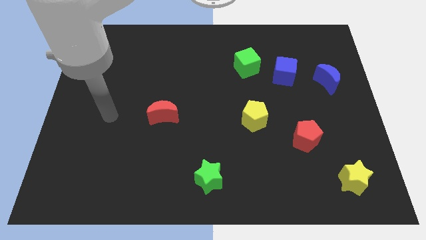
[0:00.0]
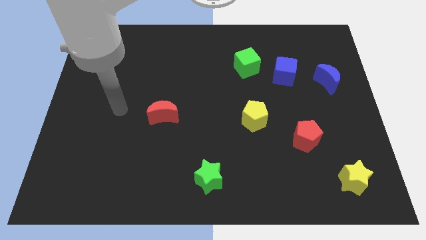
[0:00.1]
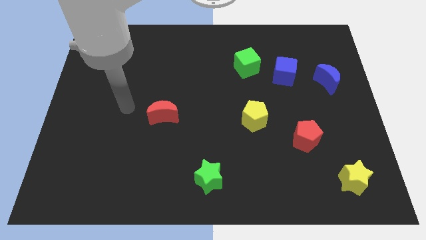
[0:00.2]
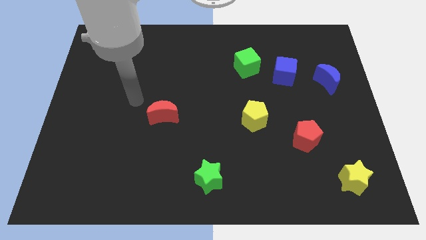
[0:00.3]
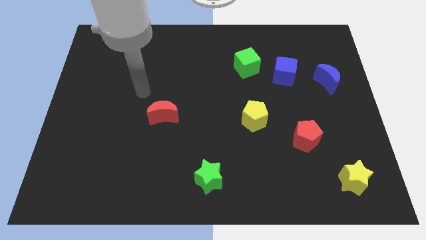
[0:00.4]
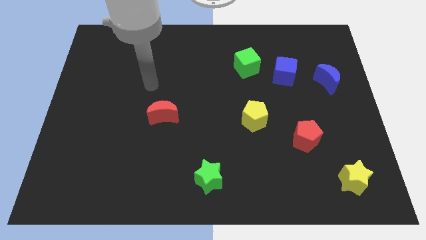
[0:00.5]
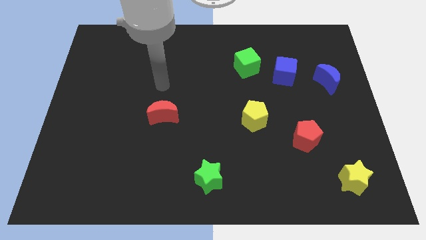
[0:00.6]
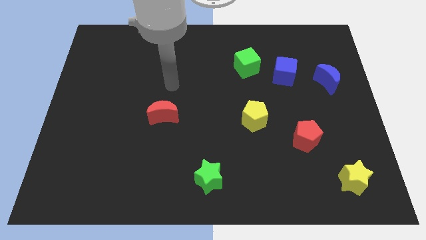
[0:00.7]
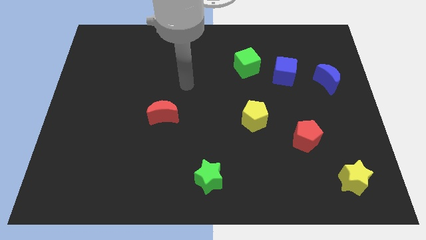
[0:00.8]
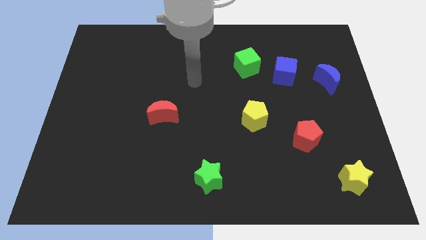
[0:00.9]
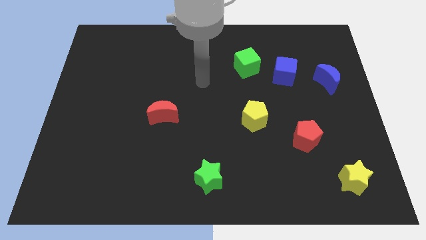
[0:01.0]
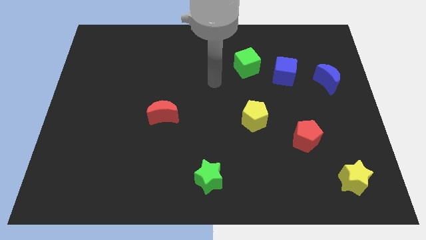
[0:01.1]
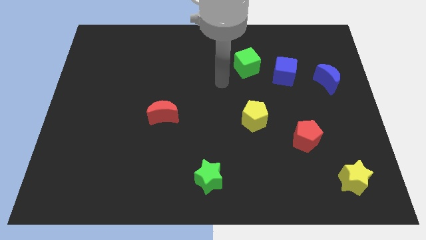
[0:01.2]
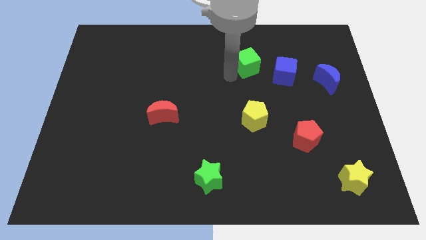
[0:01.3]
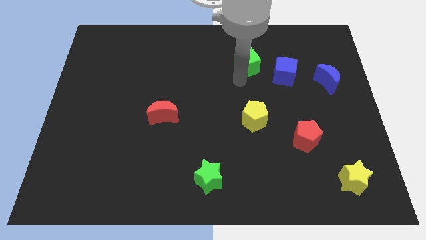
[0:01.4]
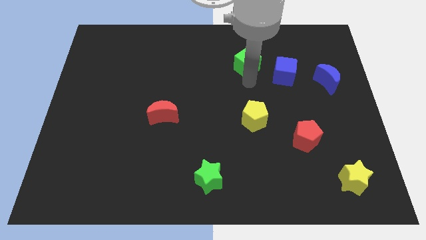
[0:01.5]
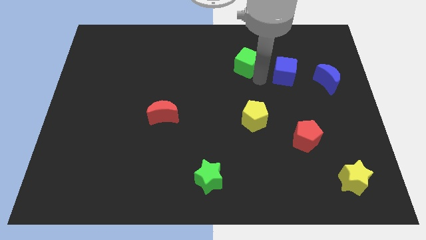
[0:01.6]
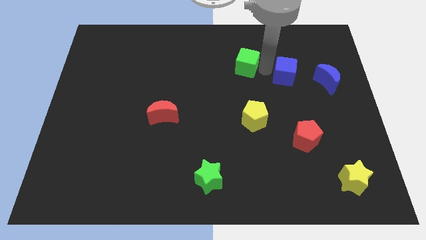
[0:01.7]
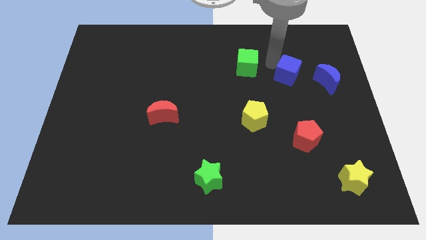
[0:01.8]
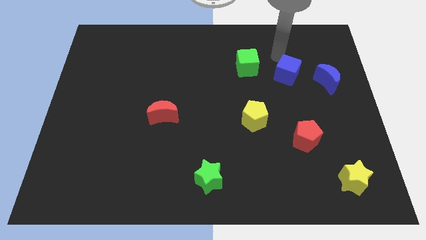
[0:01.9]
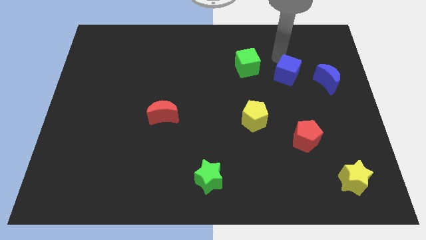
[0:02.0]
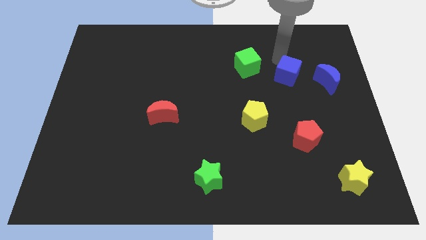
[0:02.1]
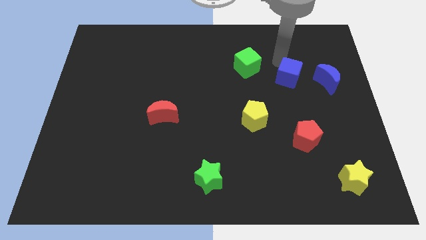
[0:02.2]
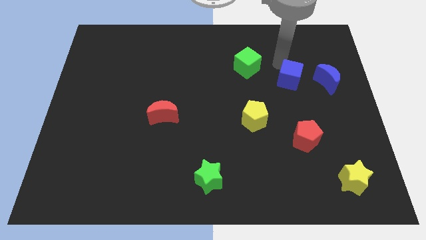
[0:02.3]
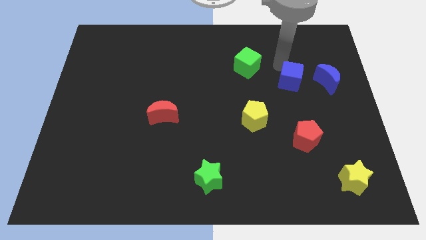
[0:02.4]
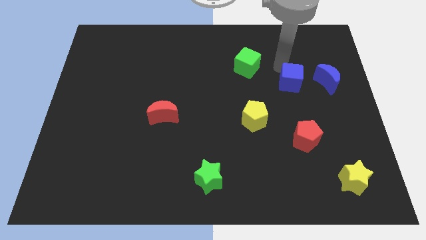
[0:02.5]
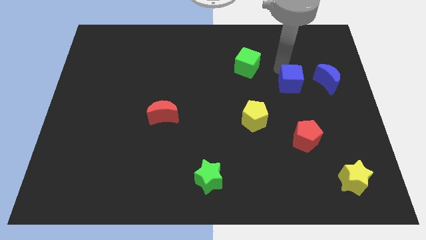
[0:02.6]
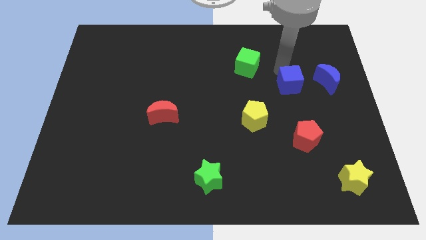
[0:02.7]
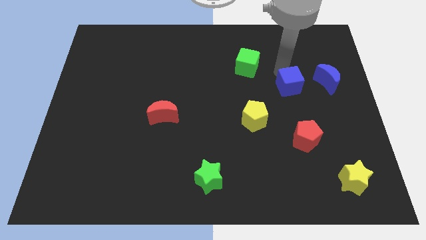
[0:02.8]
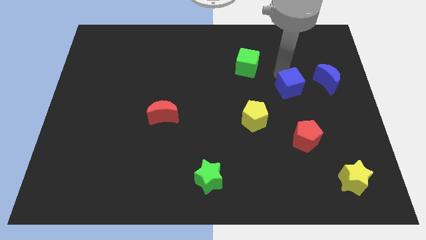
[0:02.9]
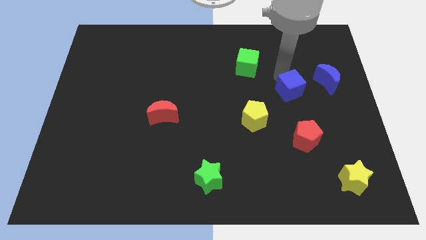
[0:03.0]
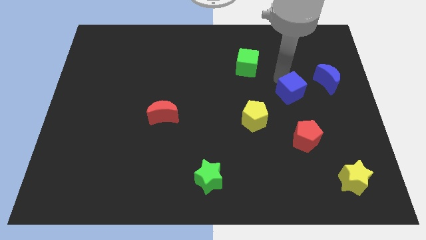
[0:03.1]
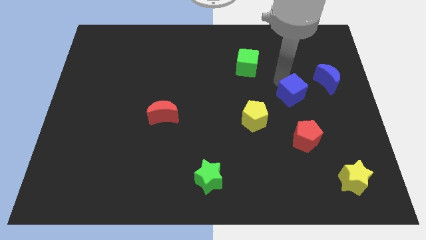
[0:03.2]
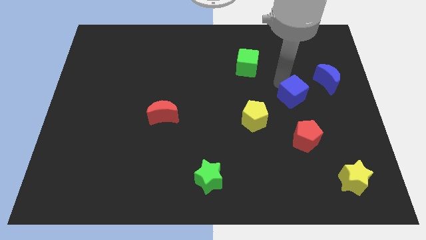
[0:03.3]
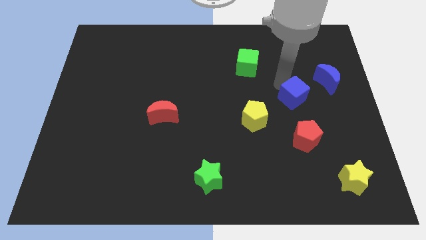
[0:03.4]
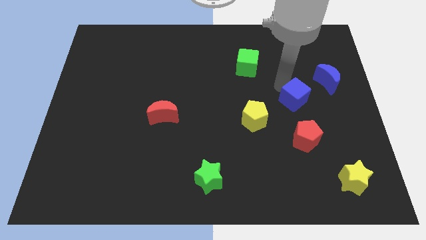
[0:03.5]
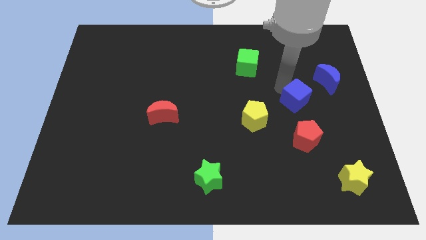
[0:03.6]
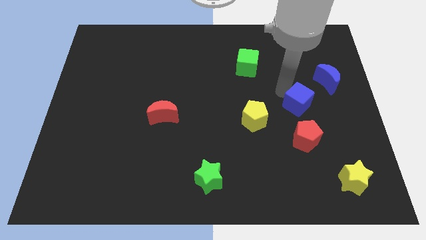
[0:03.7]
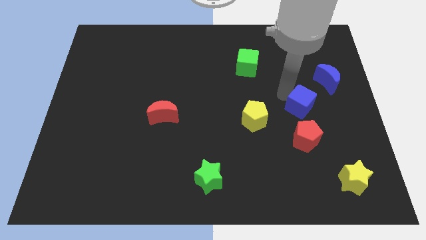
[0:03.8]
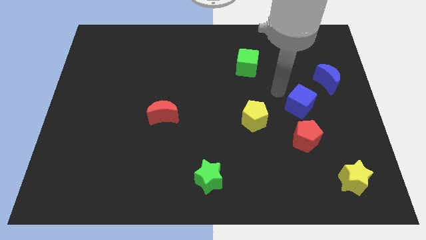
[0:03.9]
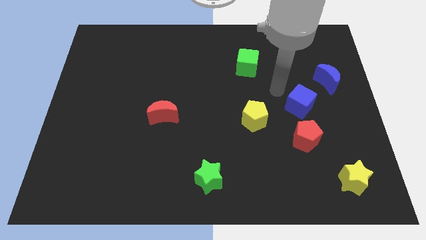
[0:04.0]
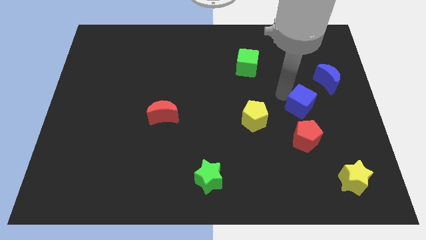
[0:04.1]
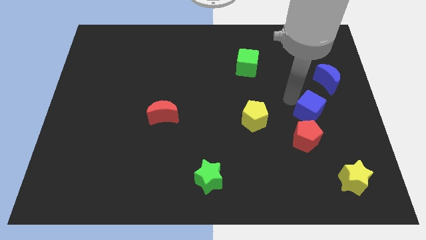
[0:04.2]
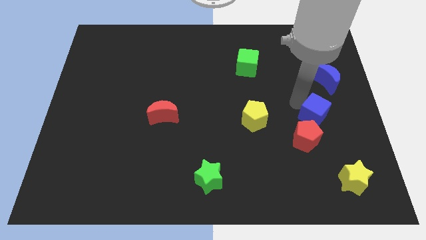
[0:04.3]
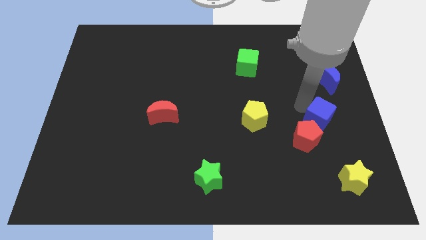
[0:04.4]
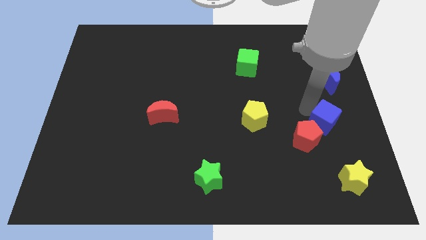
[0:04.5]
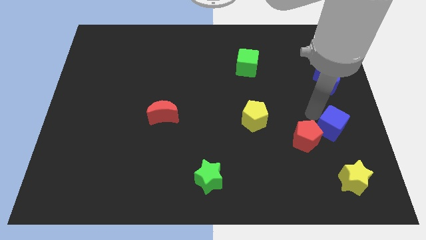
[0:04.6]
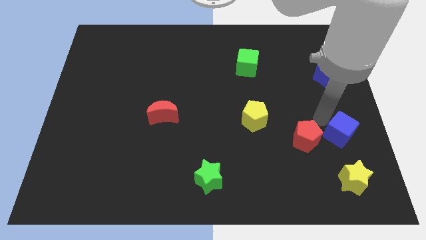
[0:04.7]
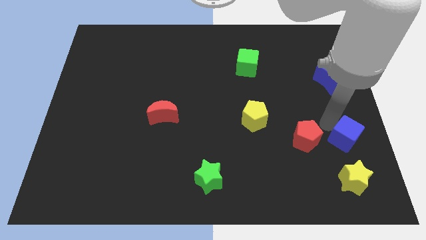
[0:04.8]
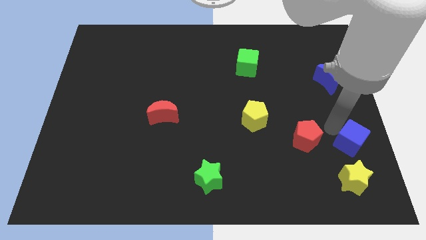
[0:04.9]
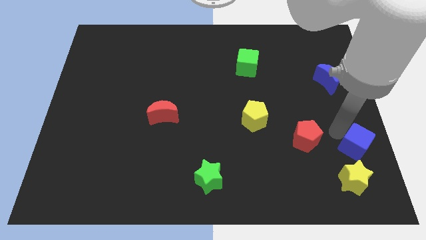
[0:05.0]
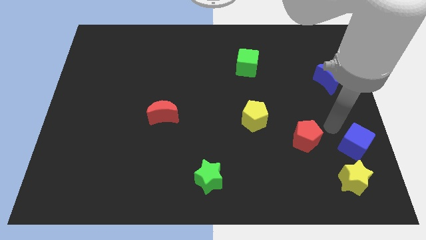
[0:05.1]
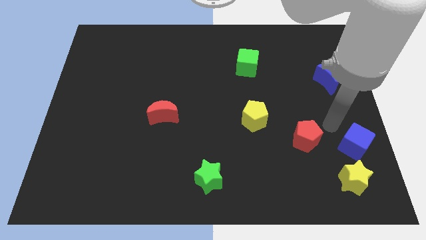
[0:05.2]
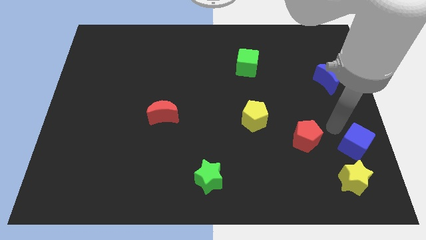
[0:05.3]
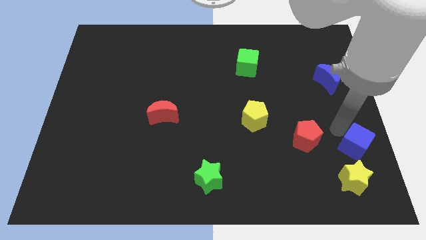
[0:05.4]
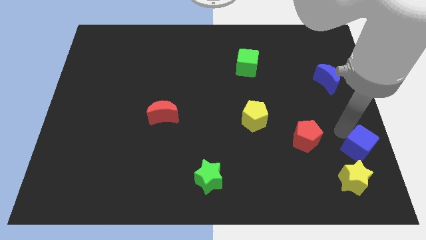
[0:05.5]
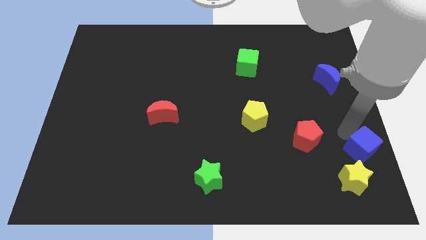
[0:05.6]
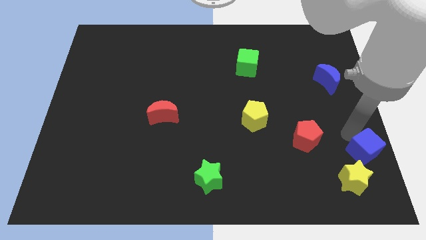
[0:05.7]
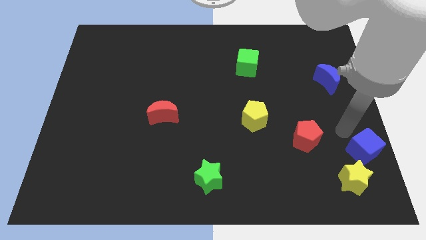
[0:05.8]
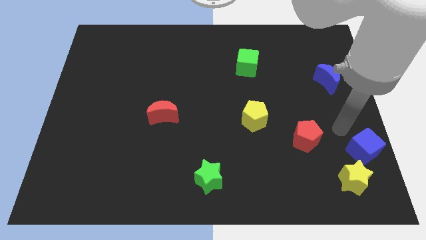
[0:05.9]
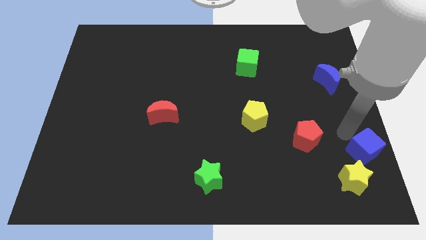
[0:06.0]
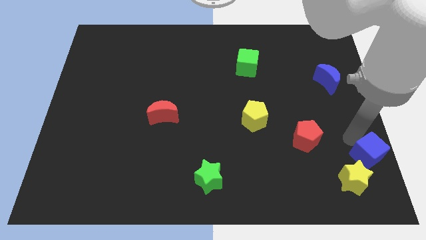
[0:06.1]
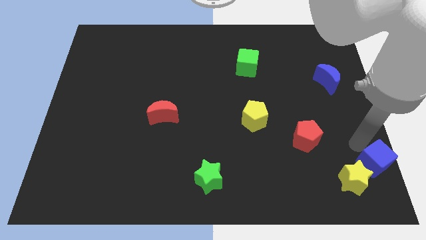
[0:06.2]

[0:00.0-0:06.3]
slide the blue cube to the bottom right corner
